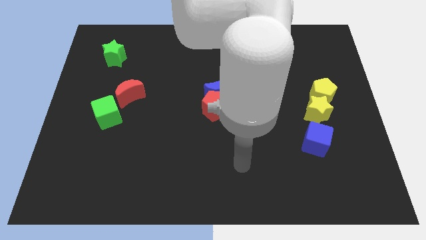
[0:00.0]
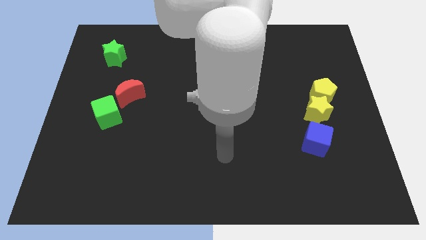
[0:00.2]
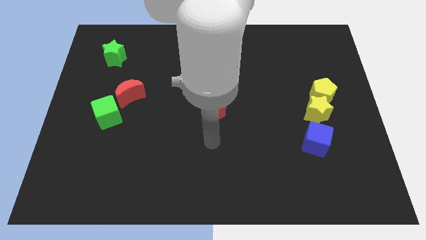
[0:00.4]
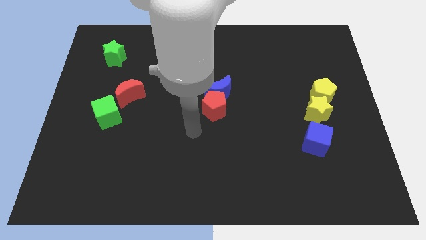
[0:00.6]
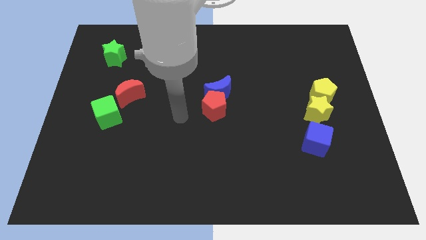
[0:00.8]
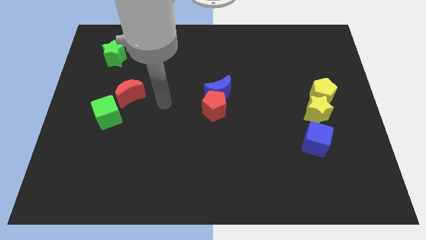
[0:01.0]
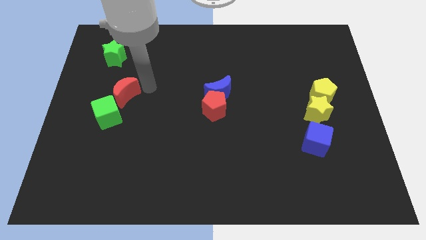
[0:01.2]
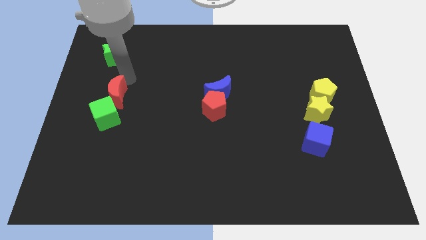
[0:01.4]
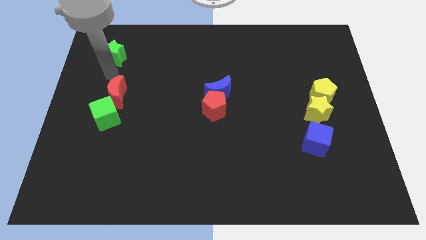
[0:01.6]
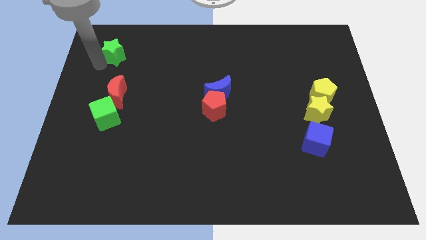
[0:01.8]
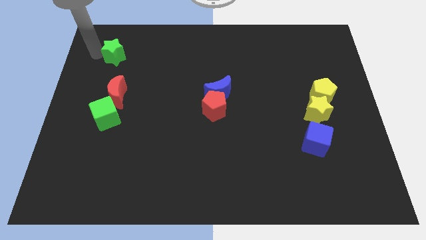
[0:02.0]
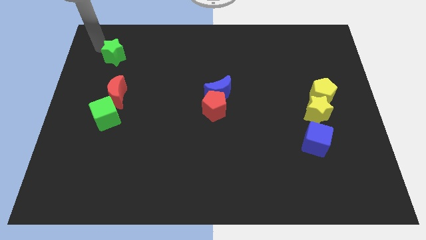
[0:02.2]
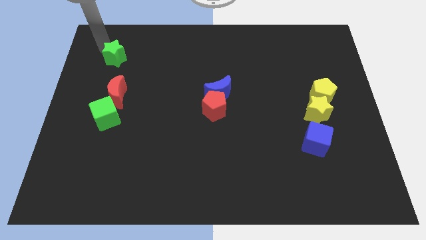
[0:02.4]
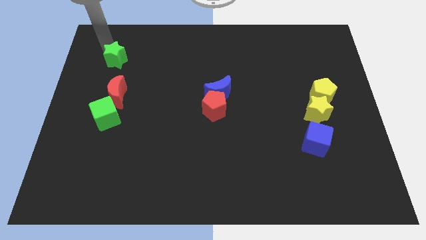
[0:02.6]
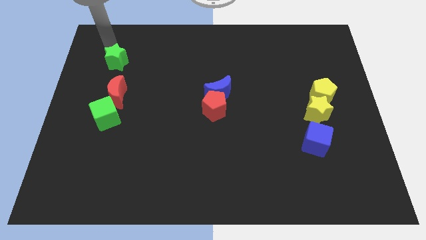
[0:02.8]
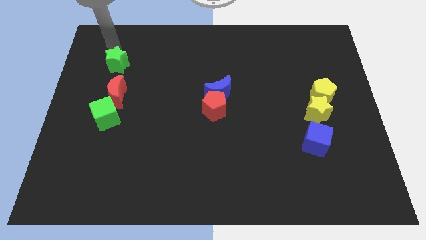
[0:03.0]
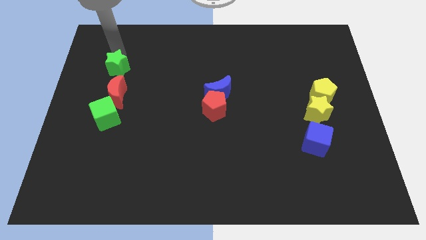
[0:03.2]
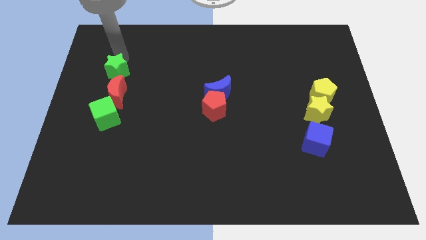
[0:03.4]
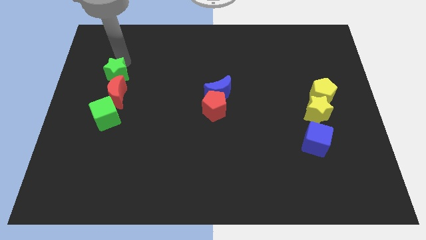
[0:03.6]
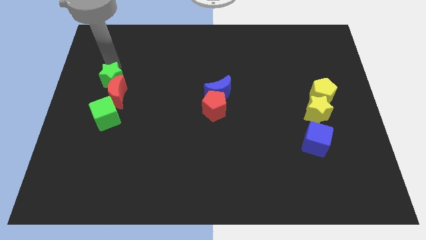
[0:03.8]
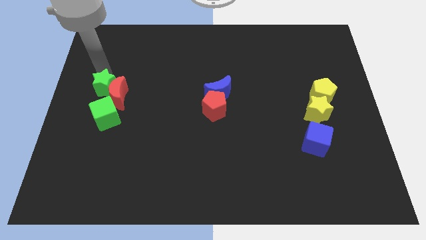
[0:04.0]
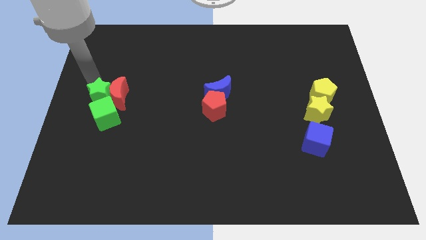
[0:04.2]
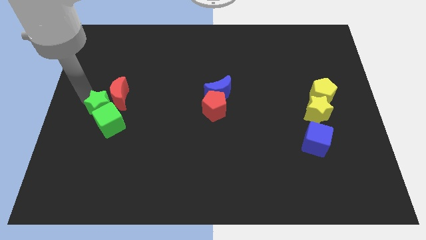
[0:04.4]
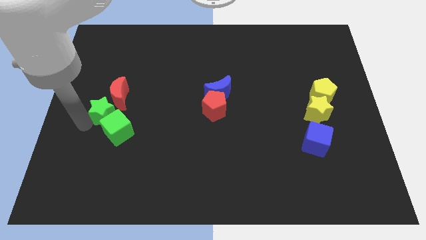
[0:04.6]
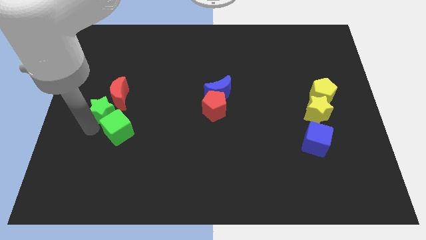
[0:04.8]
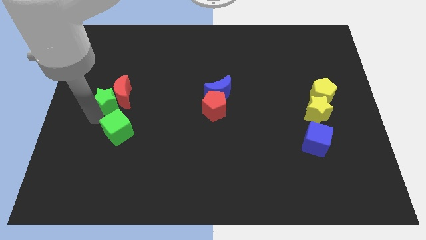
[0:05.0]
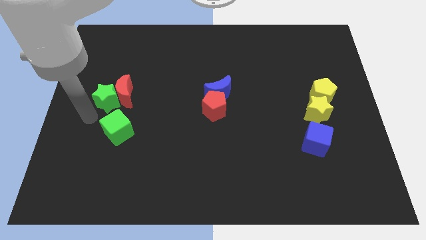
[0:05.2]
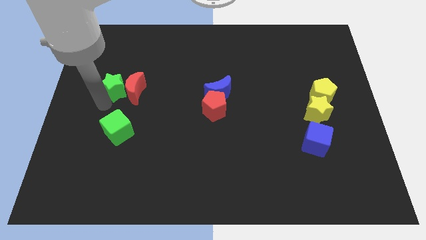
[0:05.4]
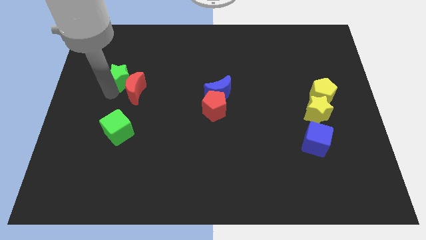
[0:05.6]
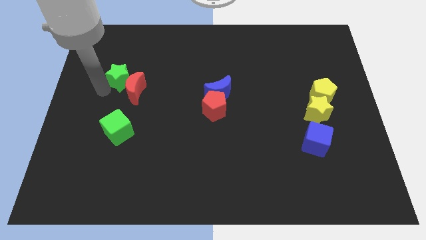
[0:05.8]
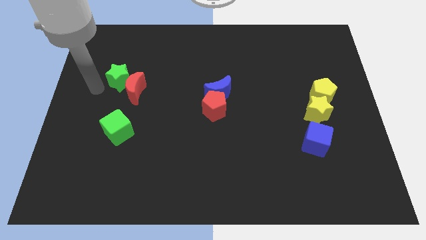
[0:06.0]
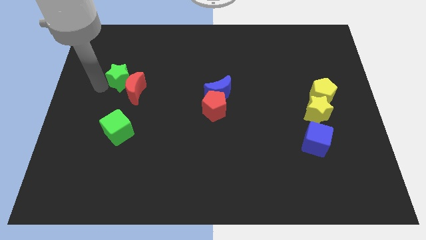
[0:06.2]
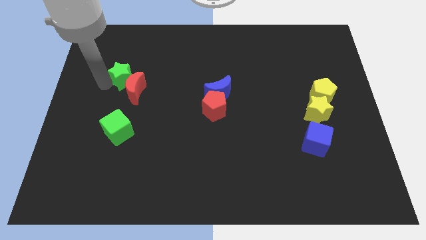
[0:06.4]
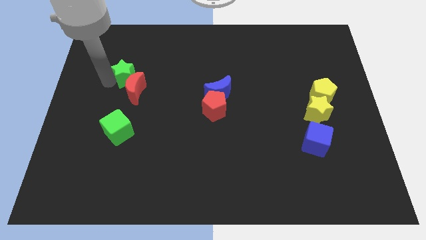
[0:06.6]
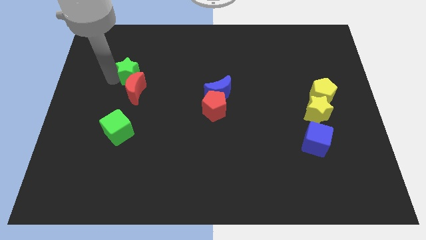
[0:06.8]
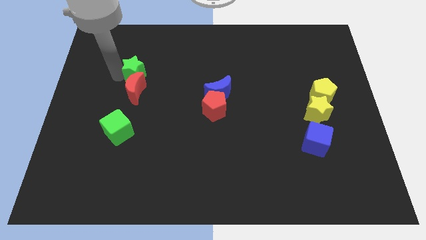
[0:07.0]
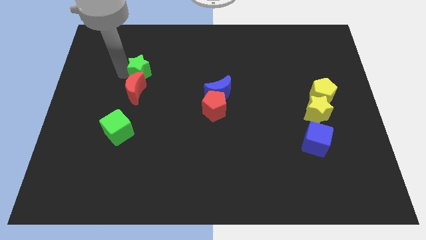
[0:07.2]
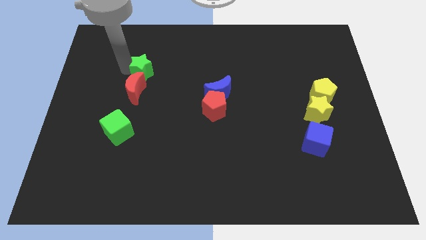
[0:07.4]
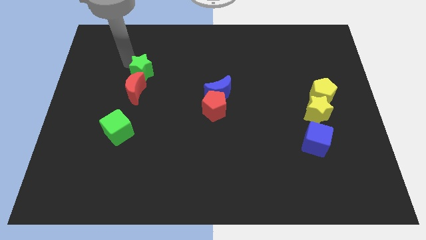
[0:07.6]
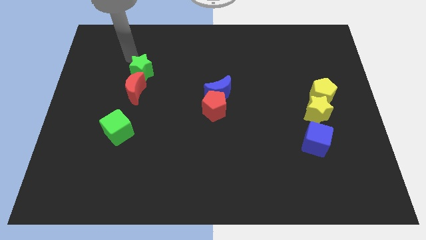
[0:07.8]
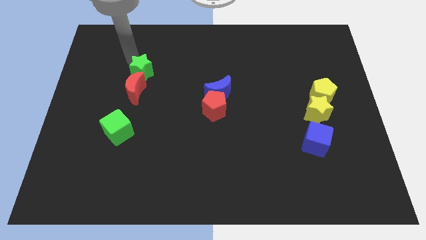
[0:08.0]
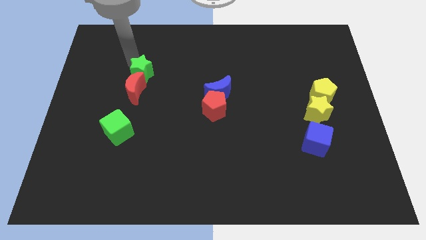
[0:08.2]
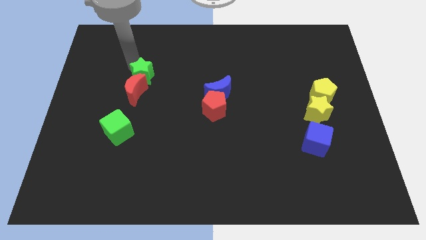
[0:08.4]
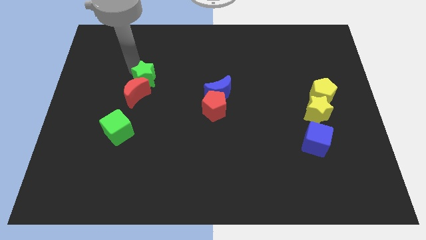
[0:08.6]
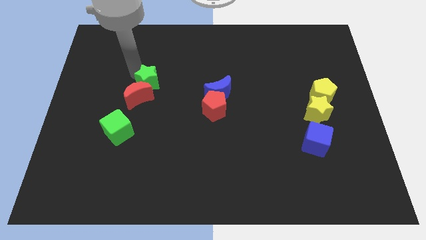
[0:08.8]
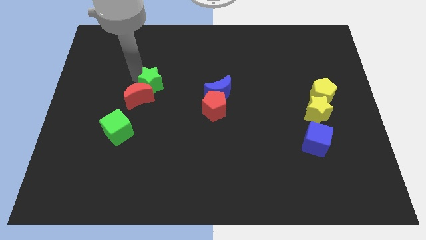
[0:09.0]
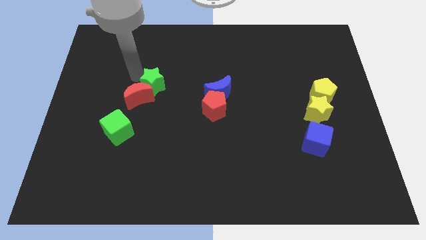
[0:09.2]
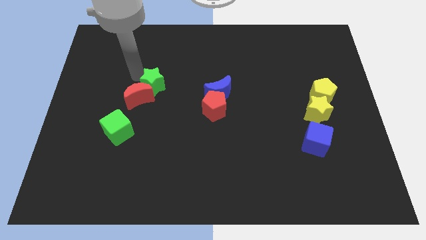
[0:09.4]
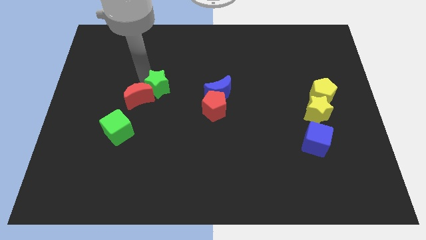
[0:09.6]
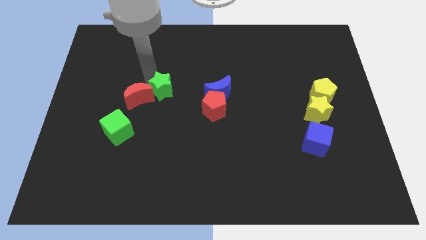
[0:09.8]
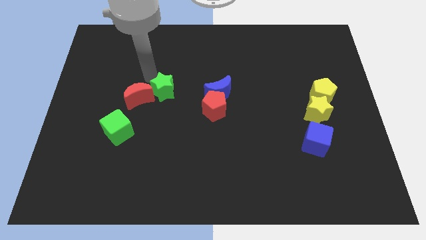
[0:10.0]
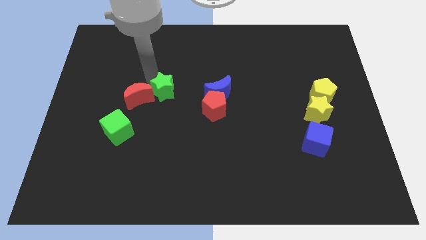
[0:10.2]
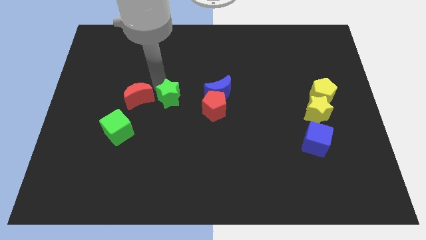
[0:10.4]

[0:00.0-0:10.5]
push the green star down and then to the right

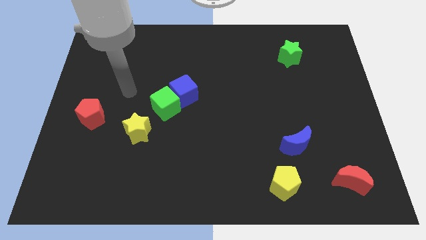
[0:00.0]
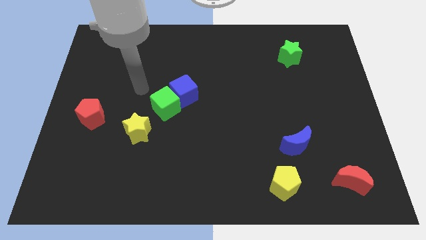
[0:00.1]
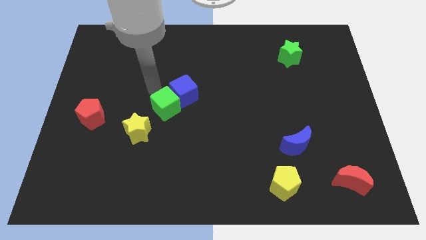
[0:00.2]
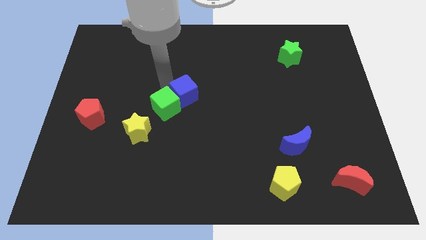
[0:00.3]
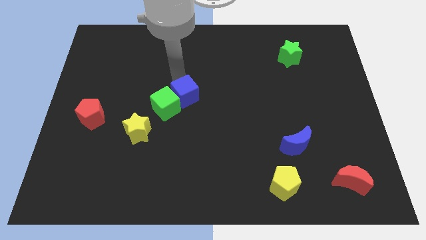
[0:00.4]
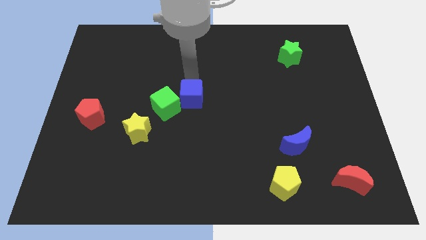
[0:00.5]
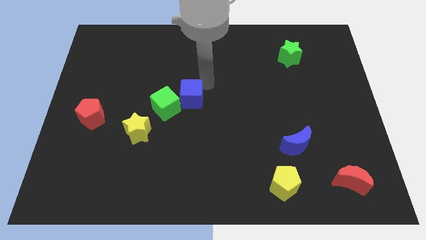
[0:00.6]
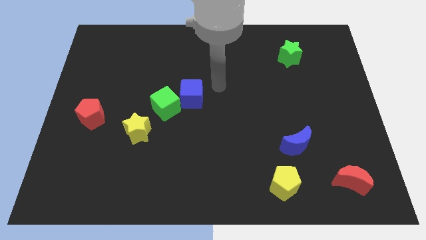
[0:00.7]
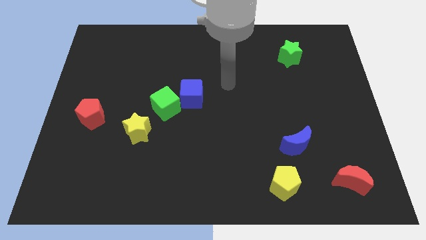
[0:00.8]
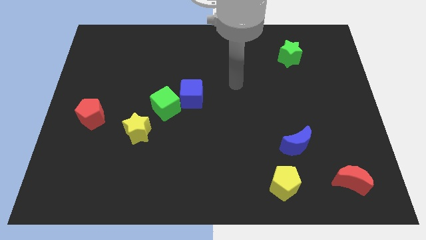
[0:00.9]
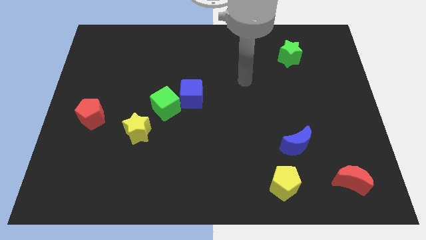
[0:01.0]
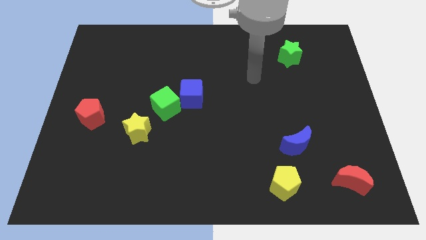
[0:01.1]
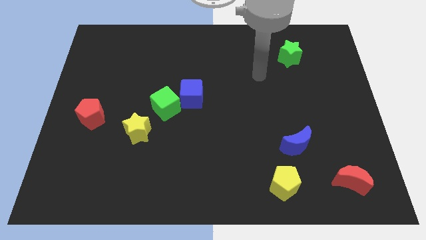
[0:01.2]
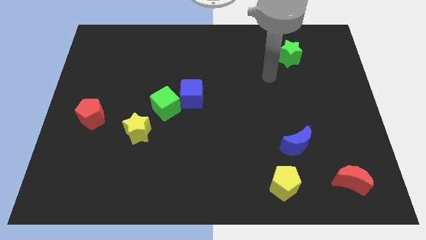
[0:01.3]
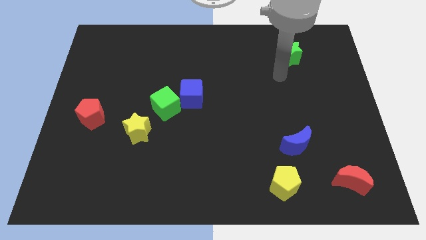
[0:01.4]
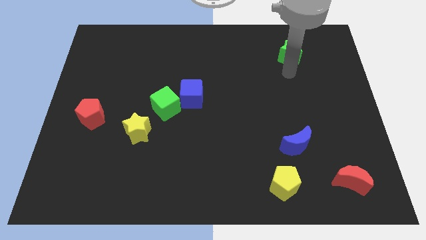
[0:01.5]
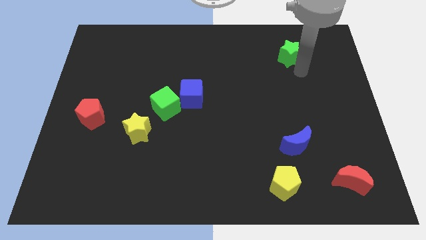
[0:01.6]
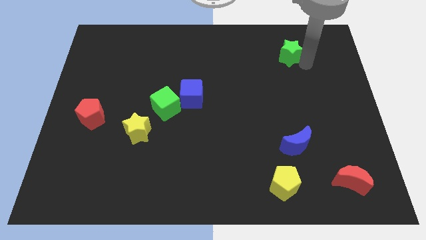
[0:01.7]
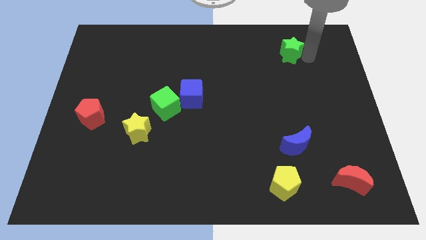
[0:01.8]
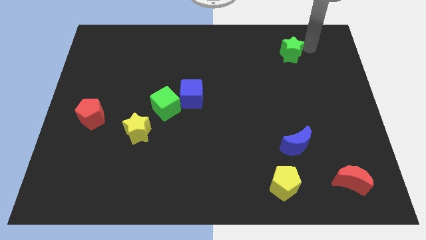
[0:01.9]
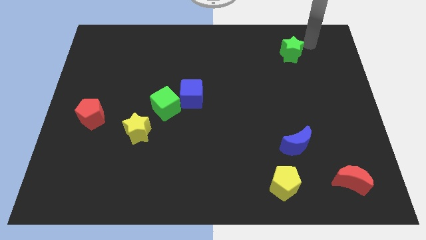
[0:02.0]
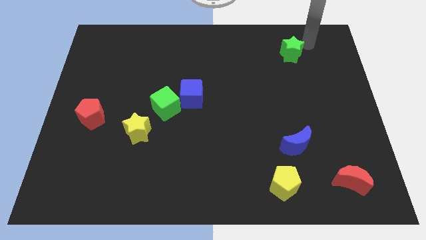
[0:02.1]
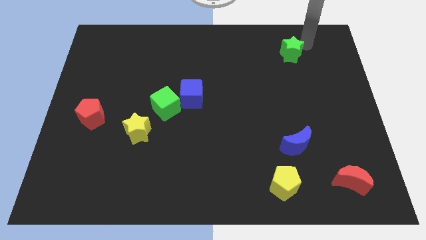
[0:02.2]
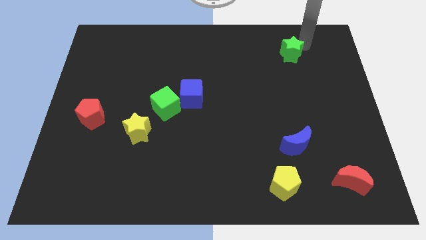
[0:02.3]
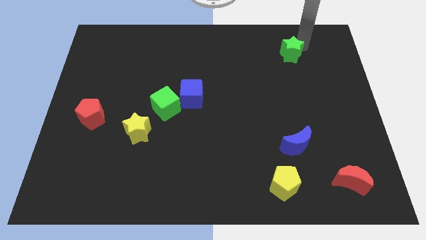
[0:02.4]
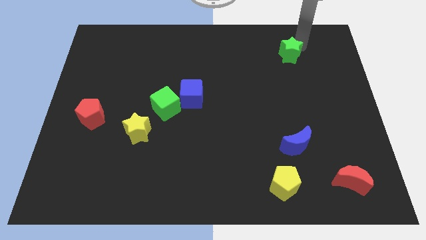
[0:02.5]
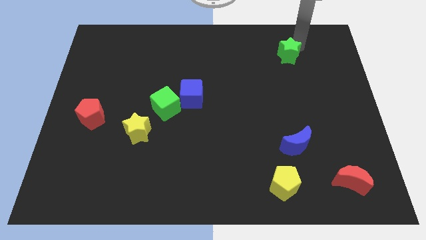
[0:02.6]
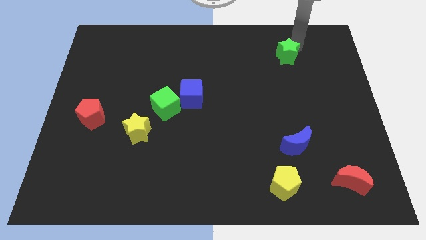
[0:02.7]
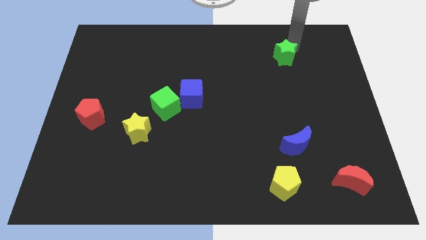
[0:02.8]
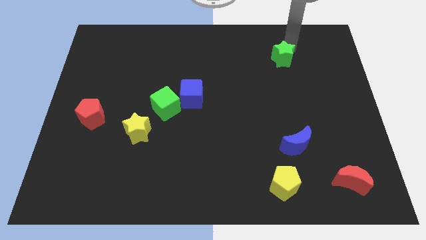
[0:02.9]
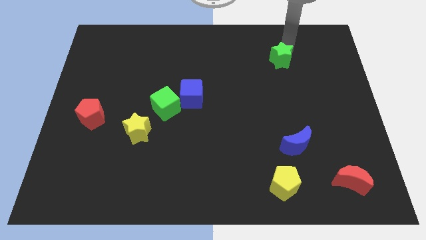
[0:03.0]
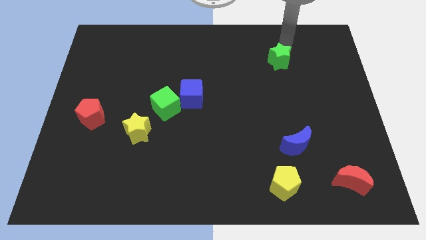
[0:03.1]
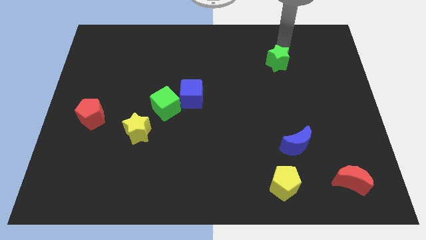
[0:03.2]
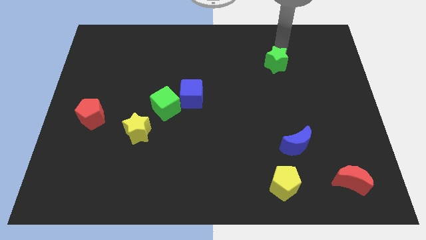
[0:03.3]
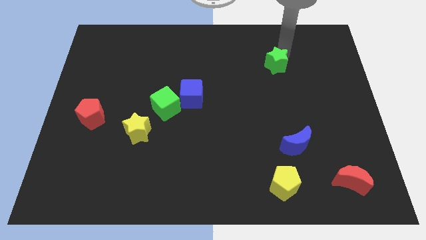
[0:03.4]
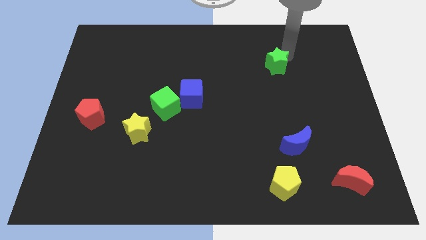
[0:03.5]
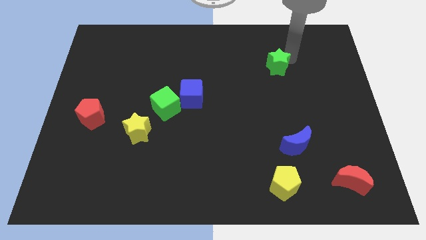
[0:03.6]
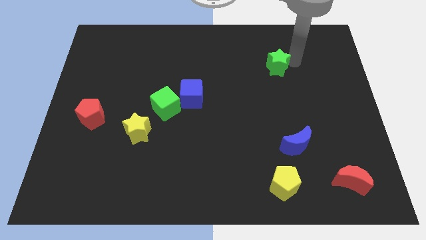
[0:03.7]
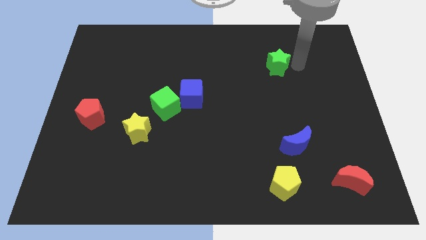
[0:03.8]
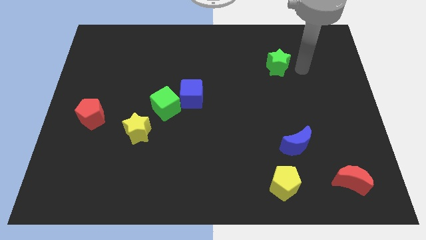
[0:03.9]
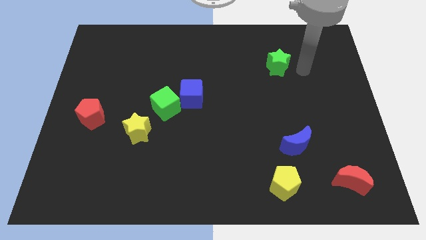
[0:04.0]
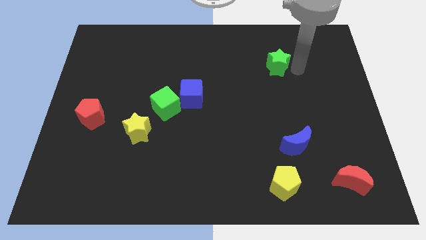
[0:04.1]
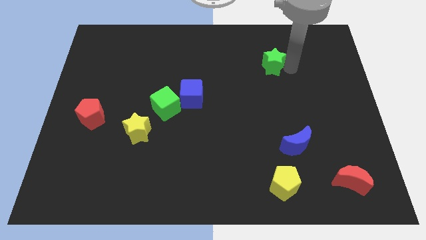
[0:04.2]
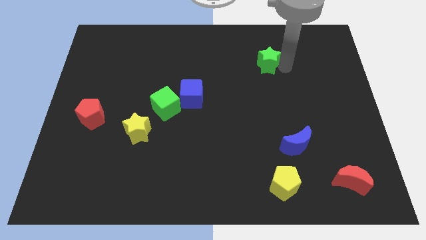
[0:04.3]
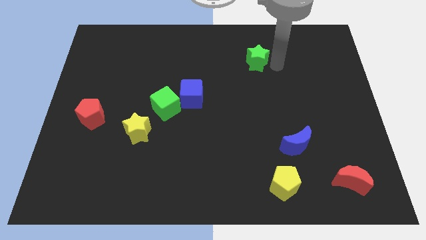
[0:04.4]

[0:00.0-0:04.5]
move the green star a bit to the left
